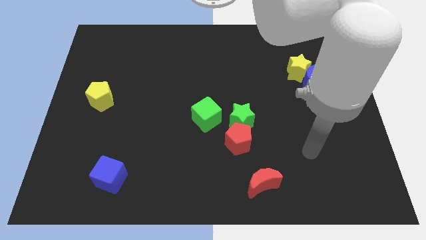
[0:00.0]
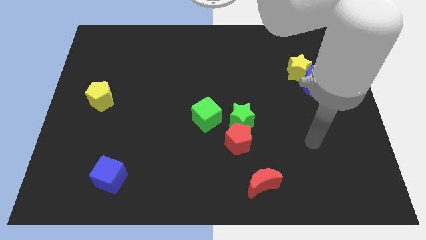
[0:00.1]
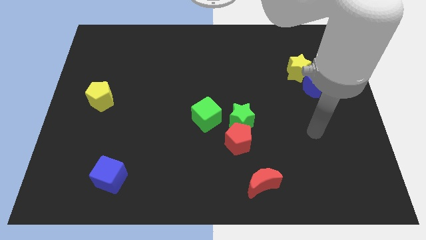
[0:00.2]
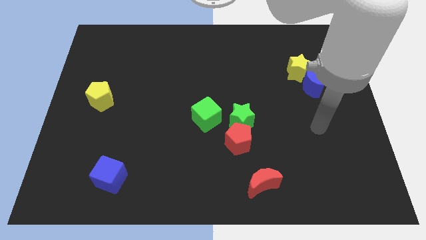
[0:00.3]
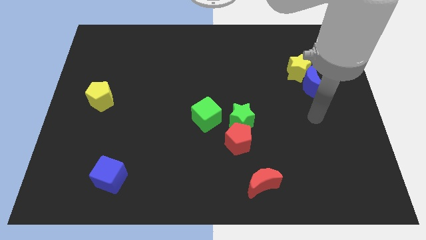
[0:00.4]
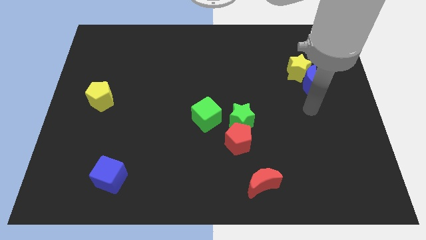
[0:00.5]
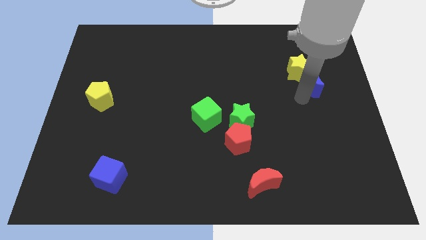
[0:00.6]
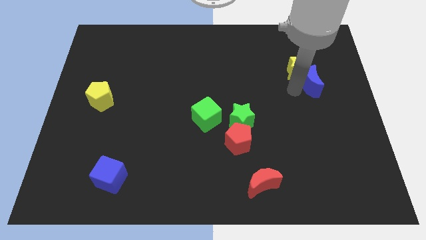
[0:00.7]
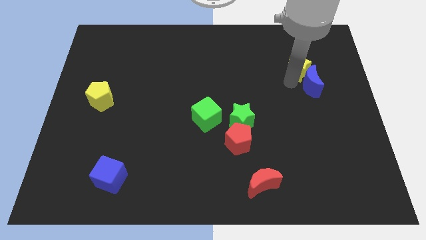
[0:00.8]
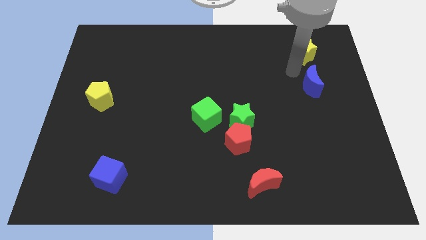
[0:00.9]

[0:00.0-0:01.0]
separate the blue moon from the yellow star

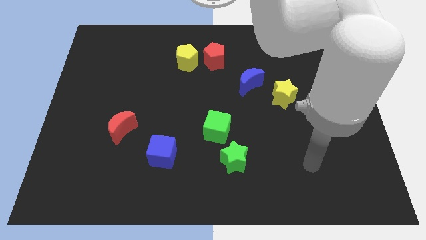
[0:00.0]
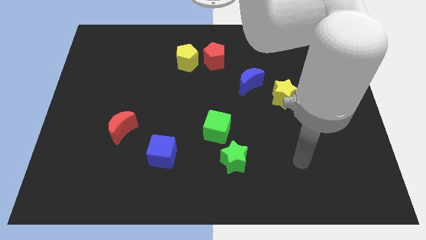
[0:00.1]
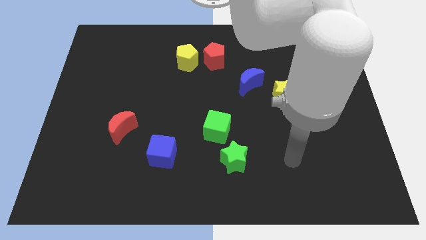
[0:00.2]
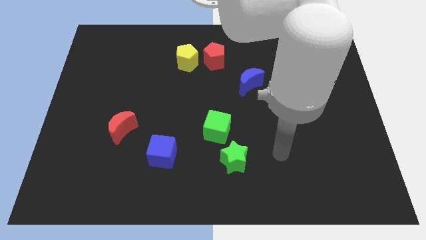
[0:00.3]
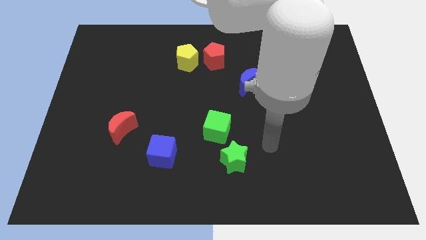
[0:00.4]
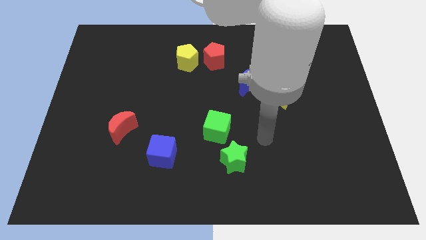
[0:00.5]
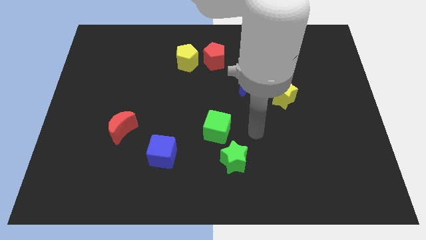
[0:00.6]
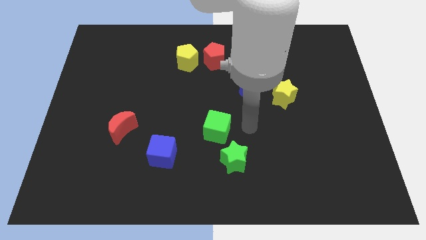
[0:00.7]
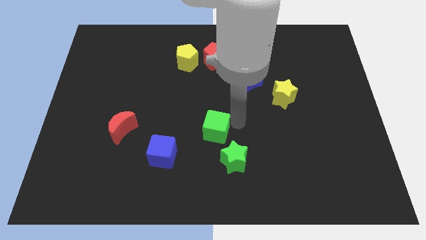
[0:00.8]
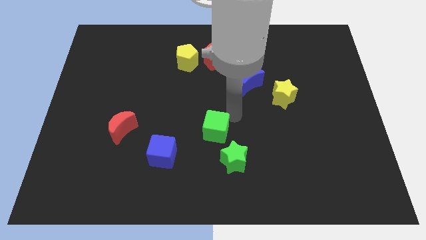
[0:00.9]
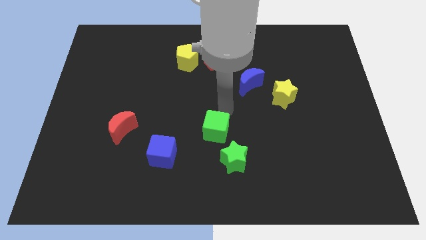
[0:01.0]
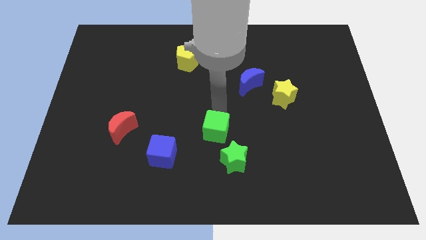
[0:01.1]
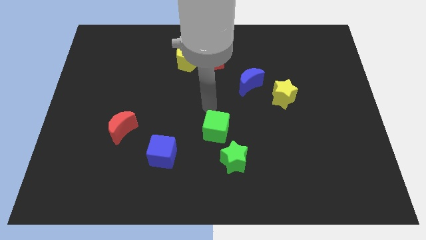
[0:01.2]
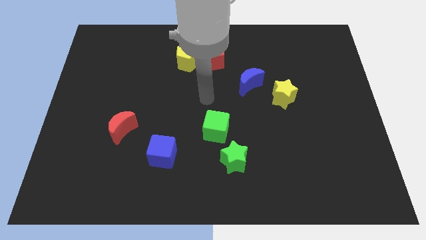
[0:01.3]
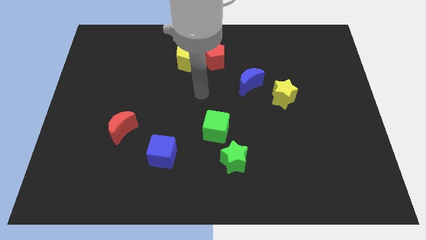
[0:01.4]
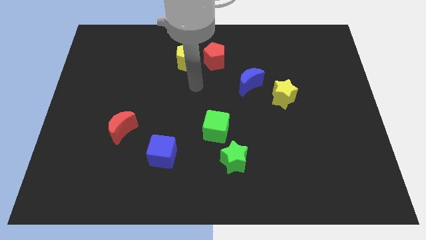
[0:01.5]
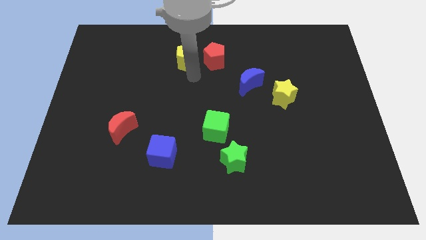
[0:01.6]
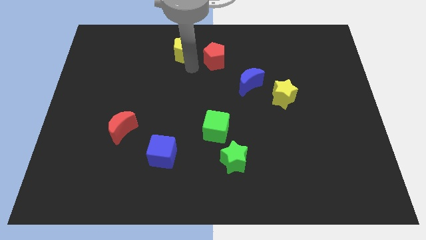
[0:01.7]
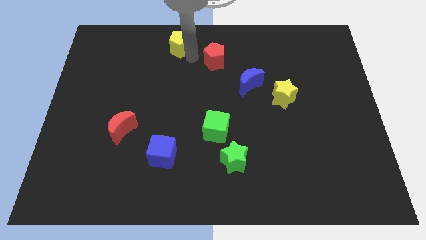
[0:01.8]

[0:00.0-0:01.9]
pull the red pentagon apart from the yellow pentagon

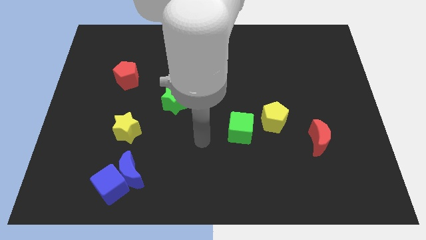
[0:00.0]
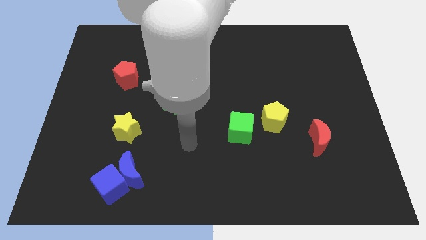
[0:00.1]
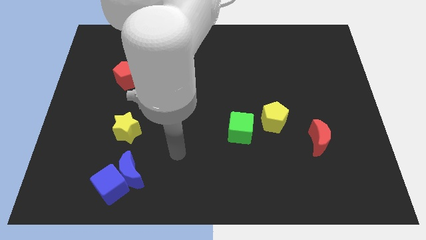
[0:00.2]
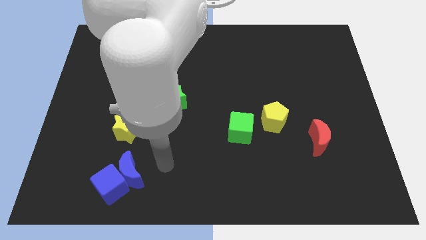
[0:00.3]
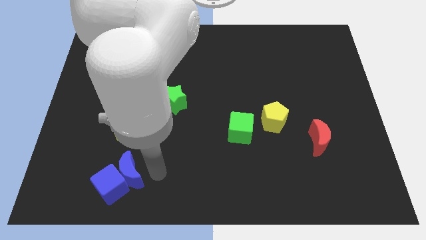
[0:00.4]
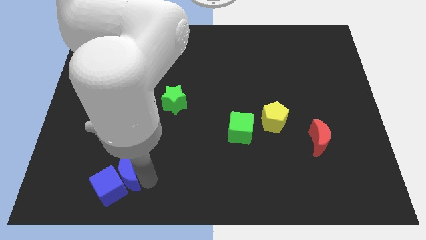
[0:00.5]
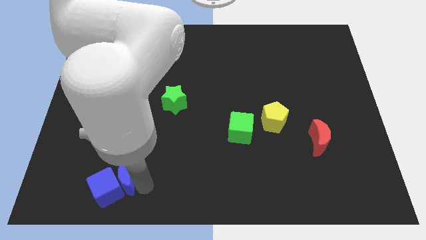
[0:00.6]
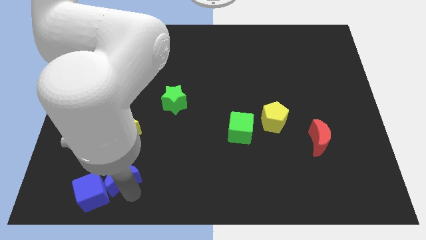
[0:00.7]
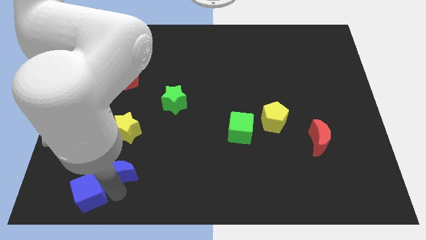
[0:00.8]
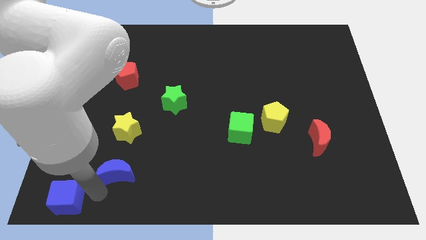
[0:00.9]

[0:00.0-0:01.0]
pull the blue moon apart from the blue cube

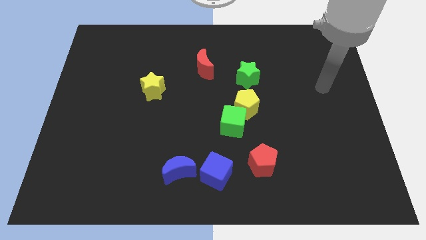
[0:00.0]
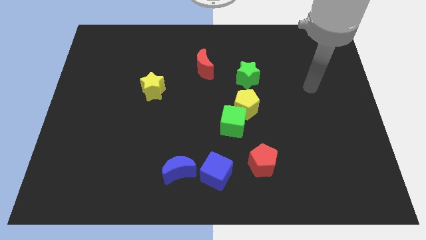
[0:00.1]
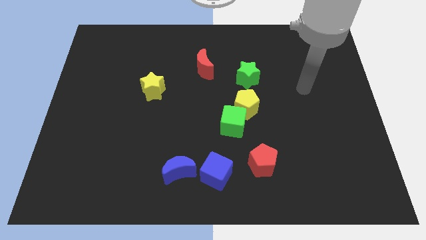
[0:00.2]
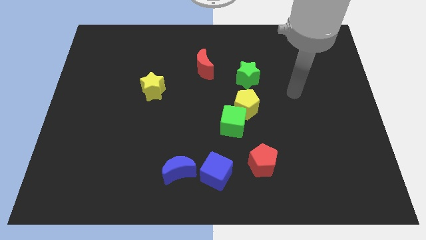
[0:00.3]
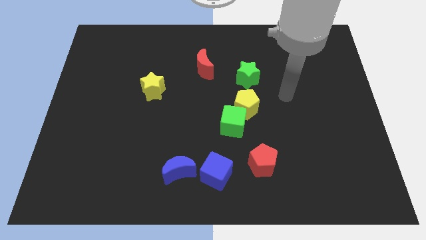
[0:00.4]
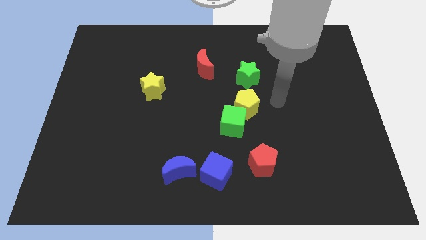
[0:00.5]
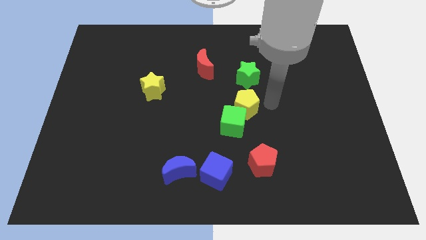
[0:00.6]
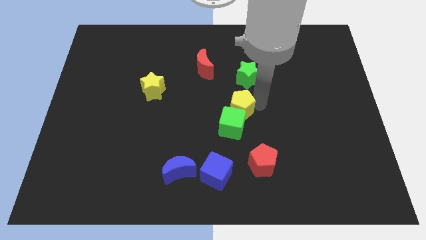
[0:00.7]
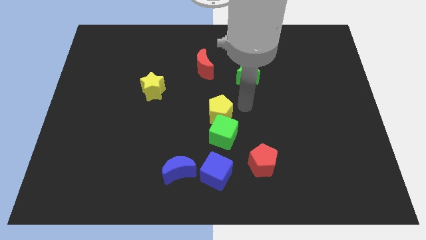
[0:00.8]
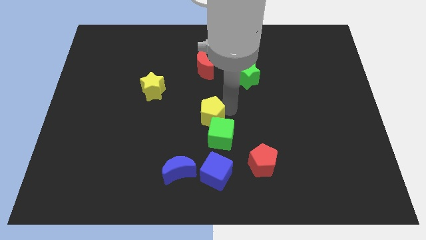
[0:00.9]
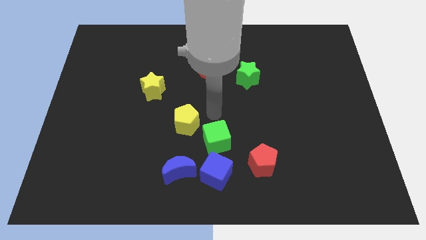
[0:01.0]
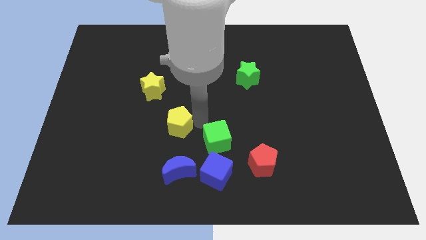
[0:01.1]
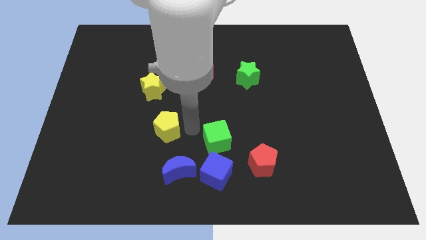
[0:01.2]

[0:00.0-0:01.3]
pull the green cube apart from the yellow pentagon

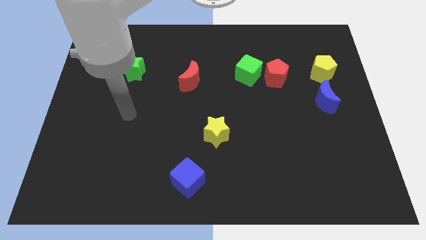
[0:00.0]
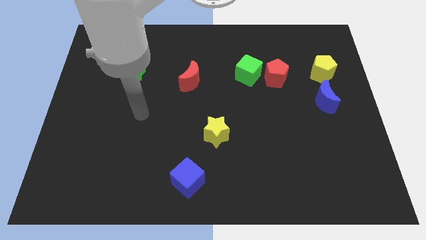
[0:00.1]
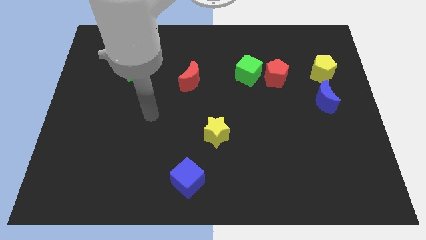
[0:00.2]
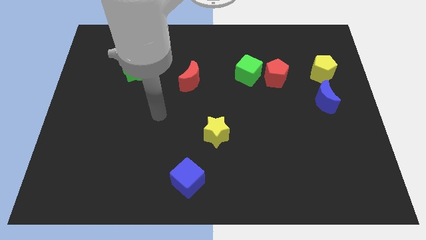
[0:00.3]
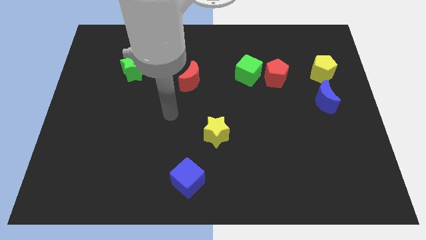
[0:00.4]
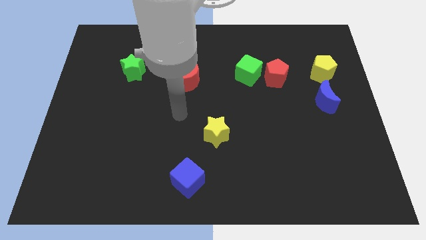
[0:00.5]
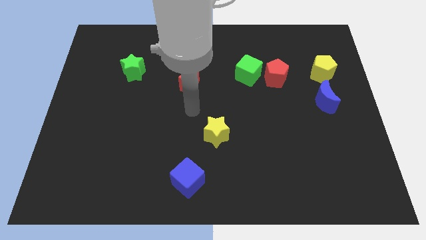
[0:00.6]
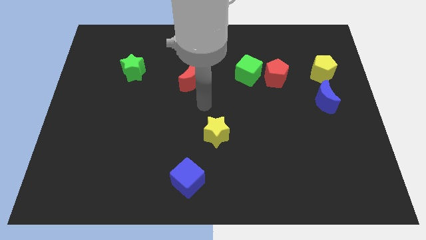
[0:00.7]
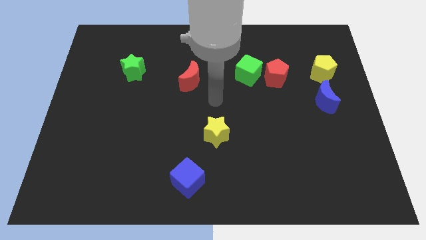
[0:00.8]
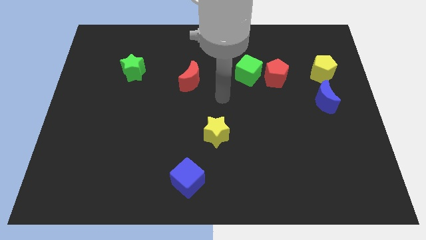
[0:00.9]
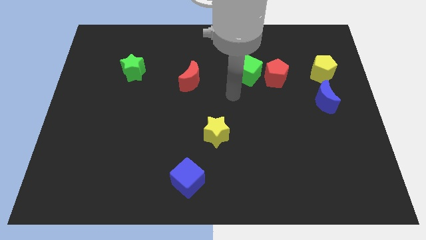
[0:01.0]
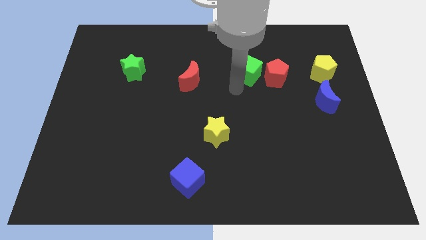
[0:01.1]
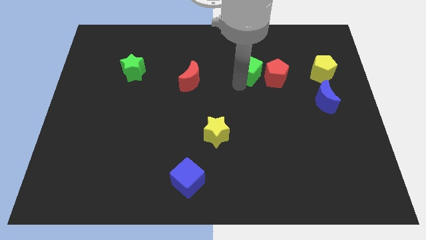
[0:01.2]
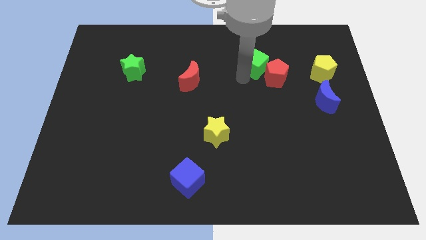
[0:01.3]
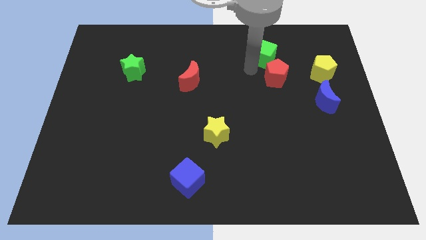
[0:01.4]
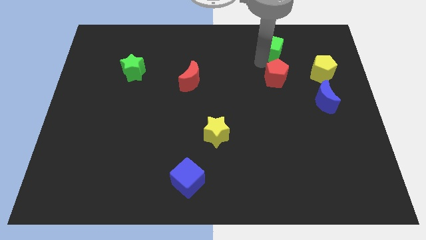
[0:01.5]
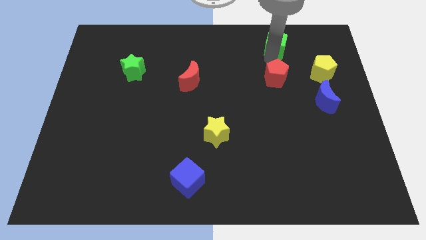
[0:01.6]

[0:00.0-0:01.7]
separate the red pentagon from the green cube

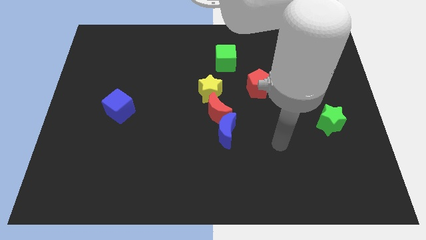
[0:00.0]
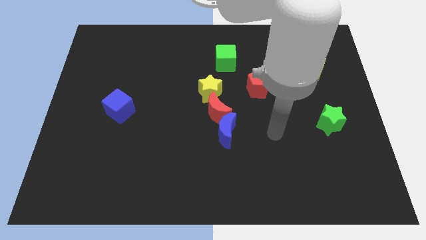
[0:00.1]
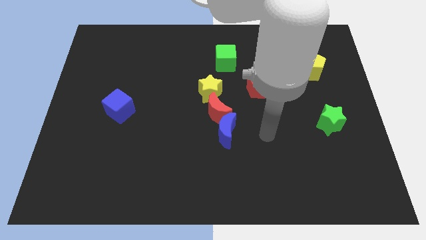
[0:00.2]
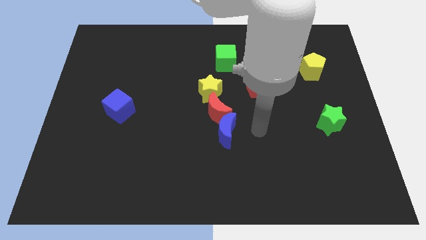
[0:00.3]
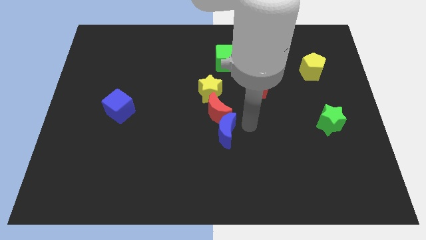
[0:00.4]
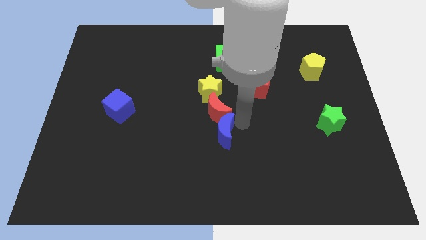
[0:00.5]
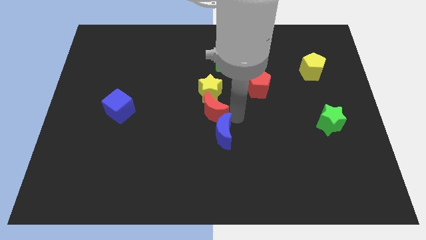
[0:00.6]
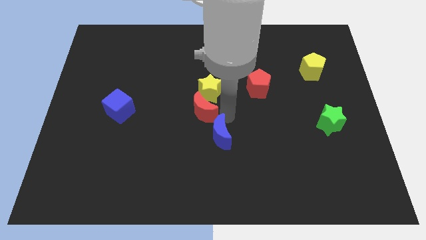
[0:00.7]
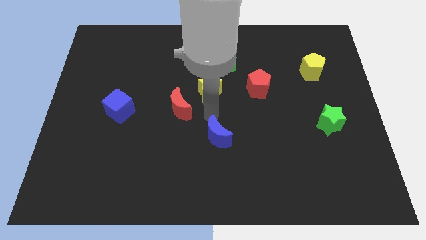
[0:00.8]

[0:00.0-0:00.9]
separate the blue moon from the red moon

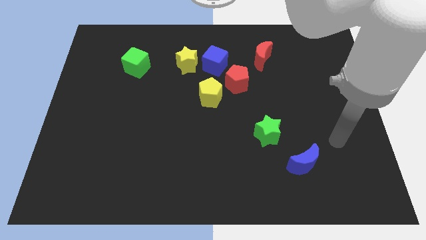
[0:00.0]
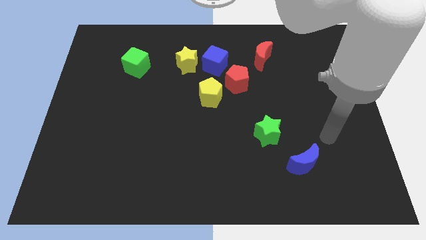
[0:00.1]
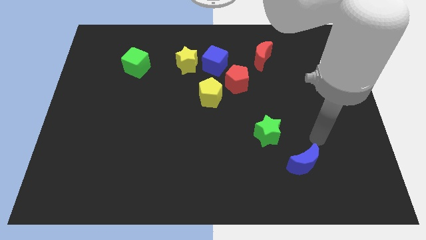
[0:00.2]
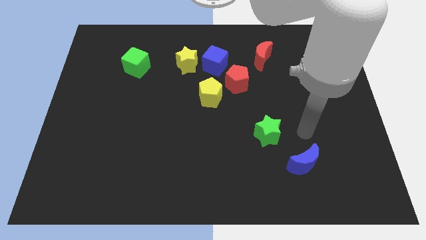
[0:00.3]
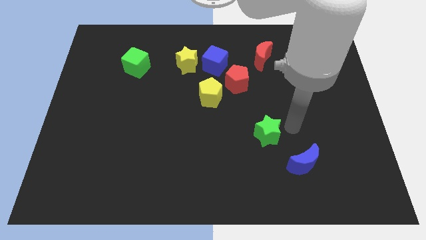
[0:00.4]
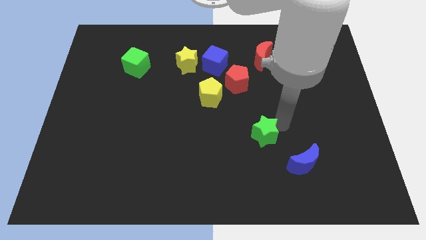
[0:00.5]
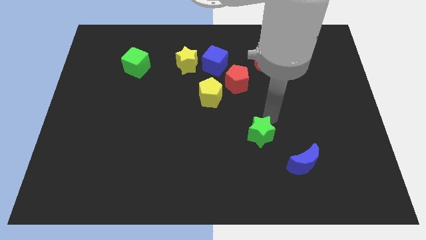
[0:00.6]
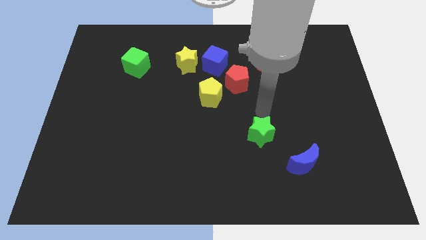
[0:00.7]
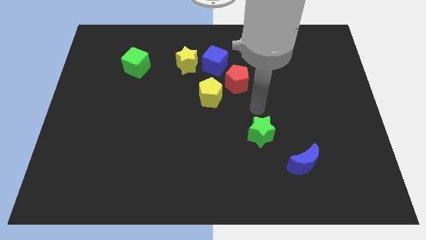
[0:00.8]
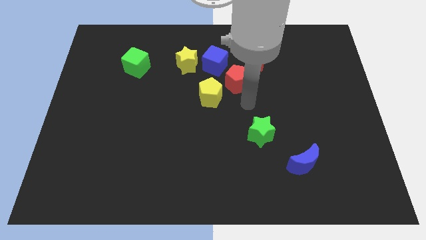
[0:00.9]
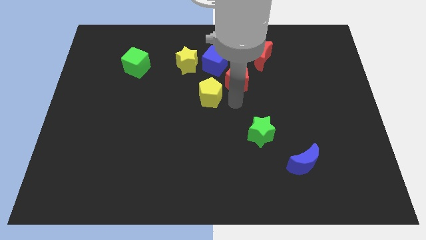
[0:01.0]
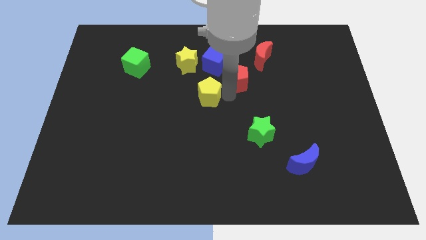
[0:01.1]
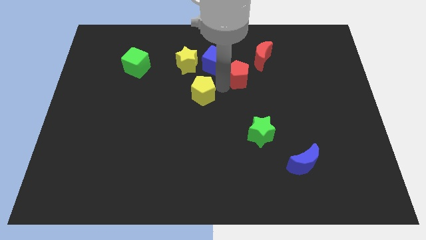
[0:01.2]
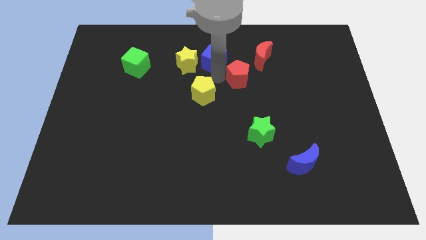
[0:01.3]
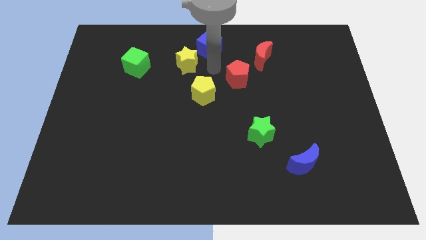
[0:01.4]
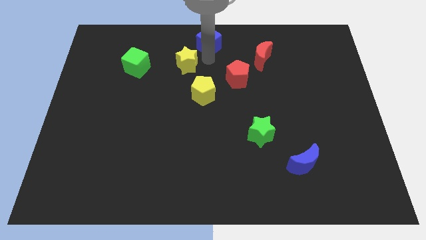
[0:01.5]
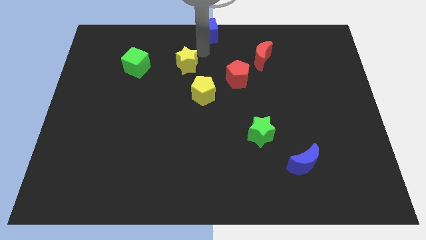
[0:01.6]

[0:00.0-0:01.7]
move the yellow star away from the blue cube
